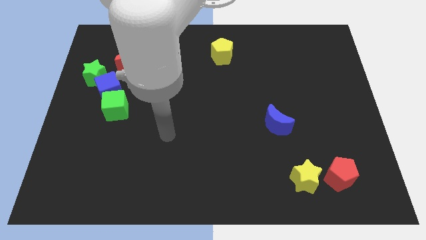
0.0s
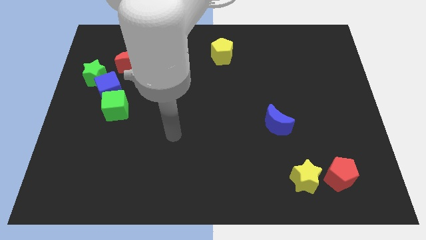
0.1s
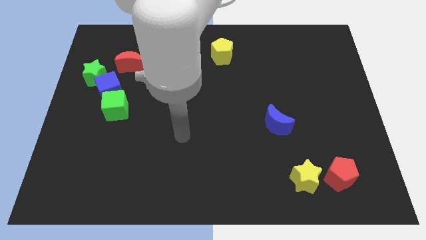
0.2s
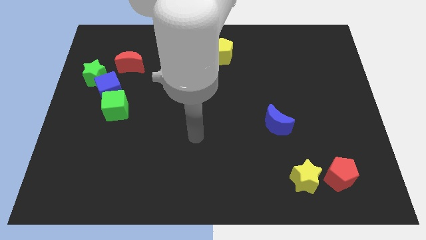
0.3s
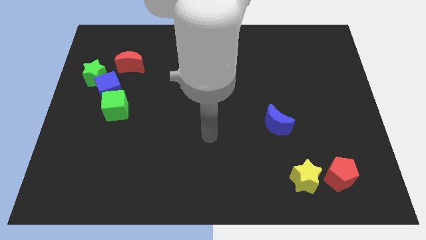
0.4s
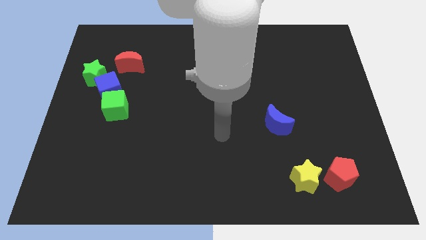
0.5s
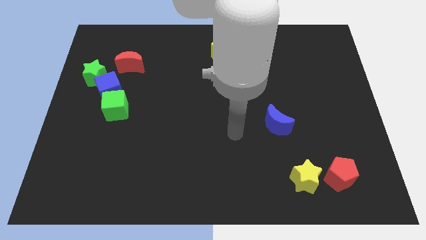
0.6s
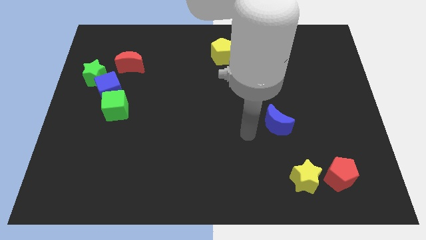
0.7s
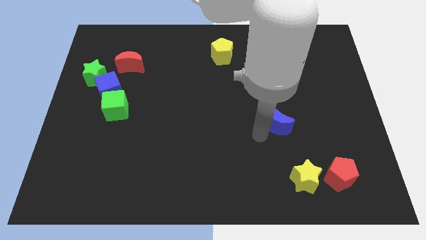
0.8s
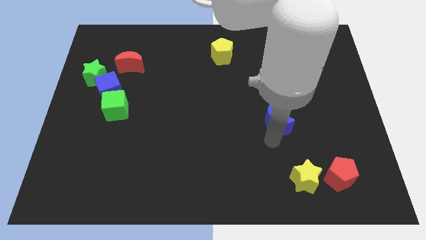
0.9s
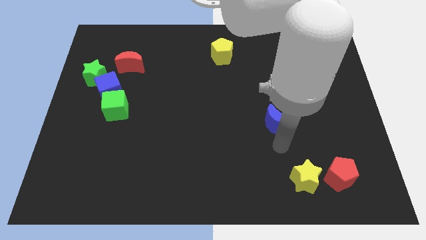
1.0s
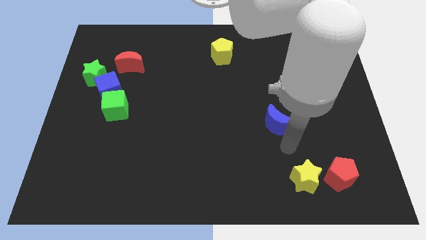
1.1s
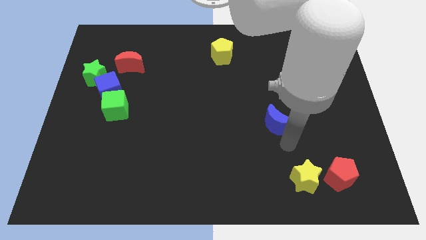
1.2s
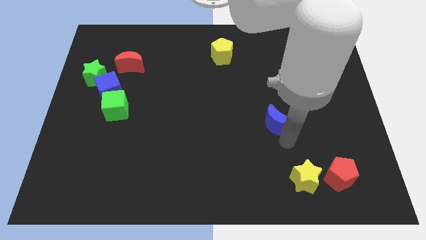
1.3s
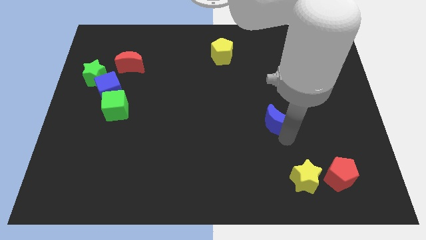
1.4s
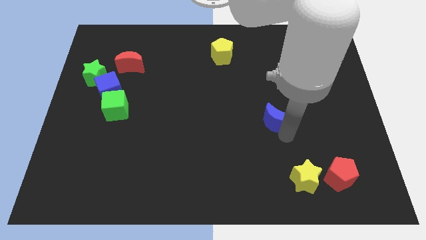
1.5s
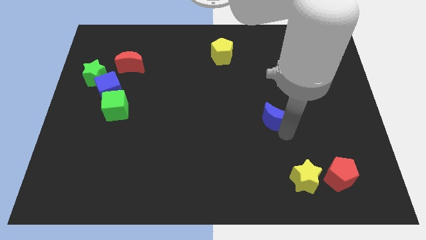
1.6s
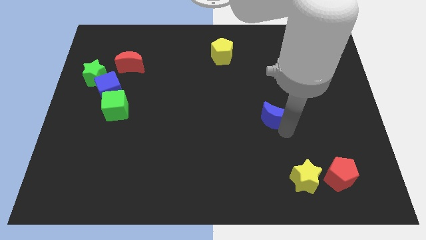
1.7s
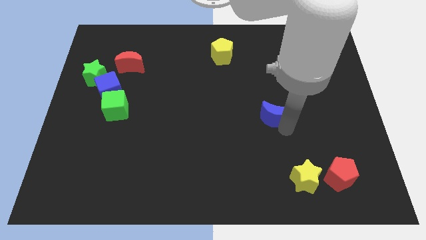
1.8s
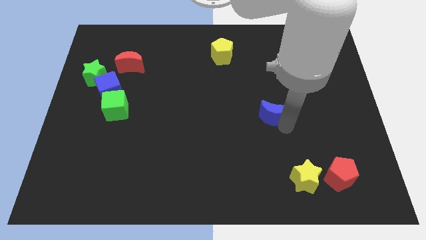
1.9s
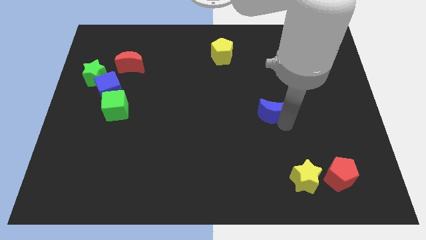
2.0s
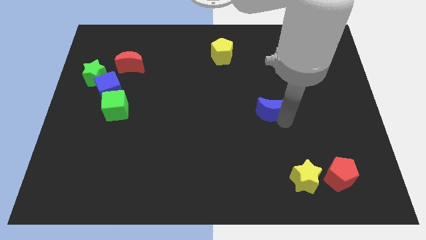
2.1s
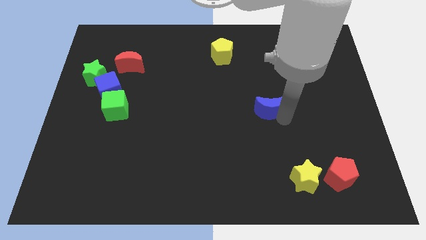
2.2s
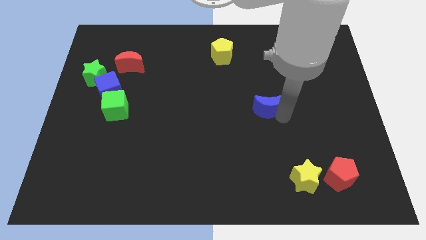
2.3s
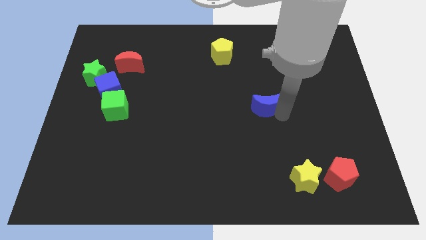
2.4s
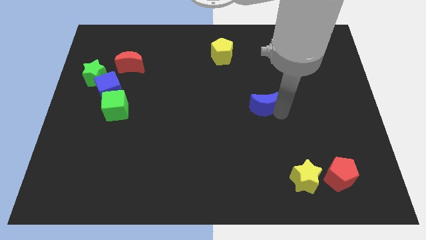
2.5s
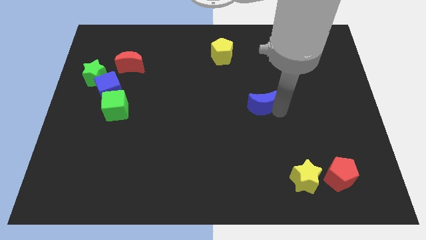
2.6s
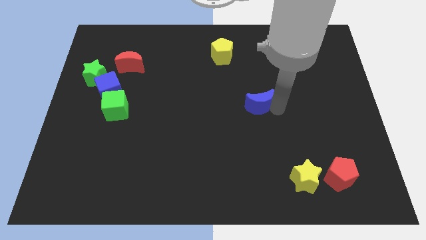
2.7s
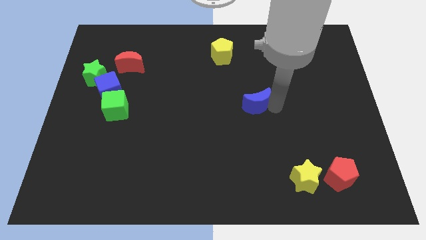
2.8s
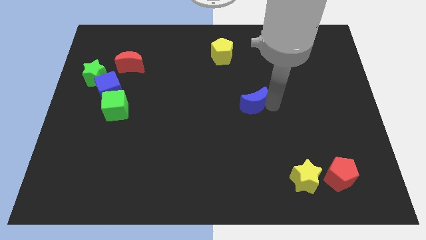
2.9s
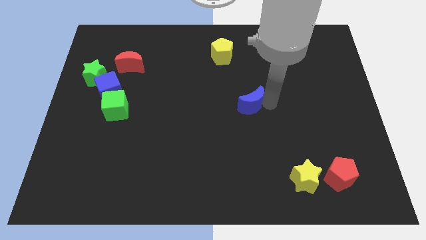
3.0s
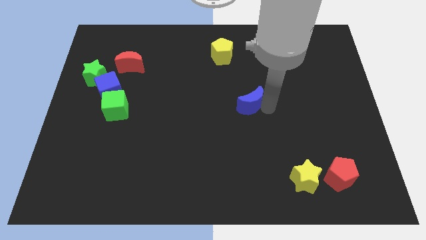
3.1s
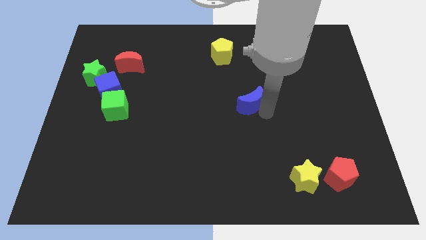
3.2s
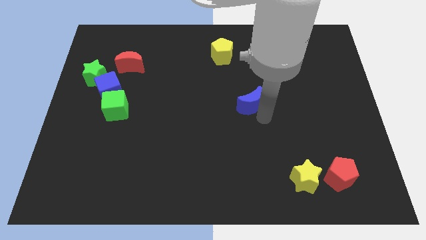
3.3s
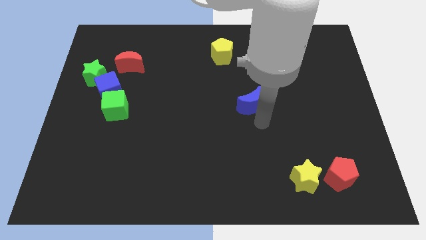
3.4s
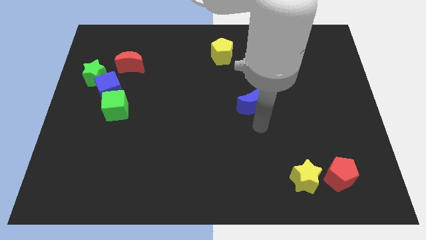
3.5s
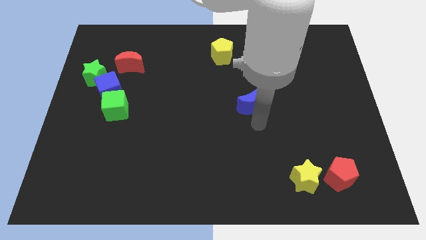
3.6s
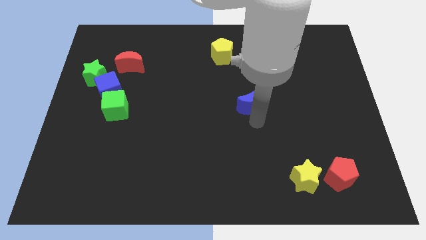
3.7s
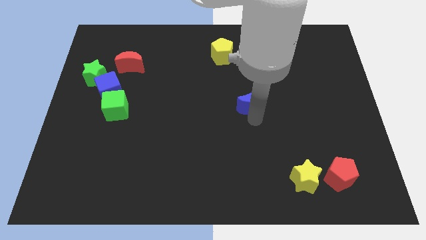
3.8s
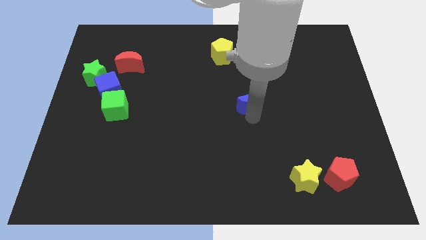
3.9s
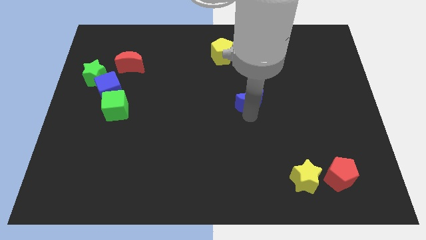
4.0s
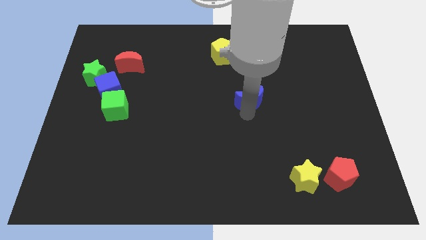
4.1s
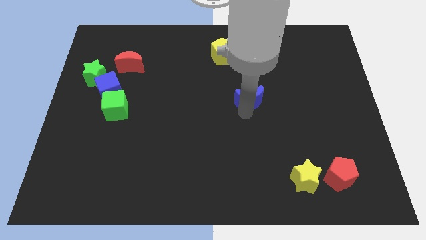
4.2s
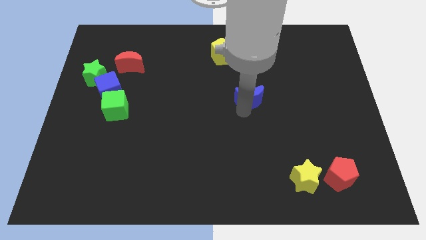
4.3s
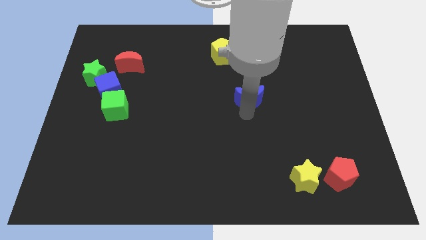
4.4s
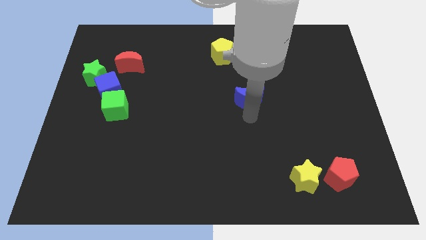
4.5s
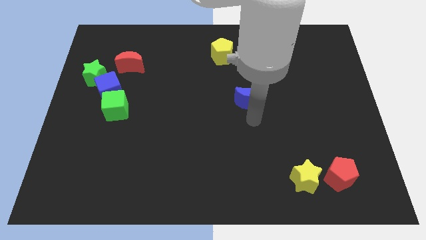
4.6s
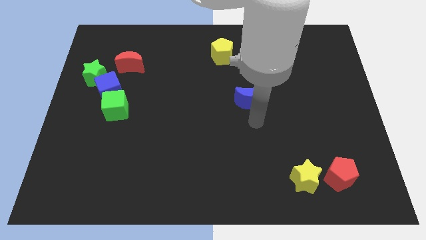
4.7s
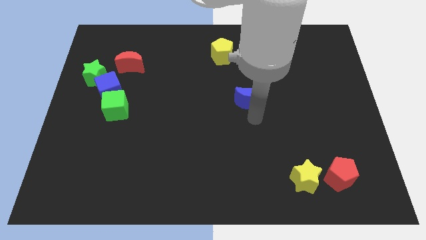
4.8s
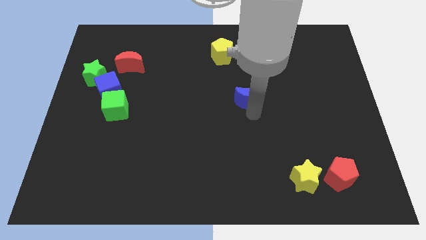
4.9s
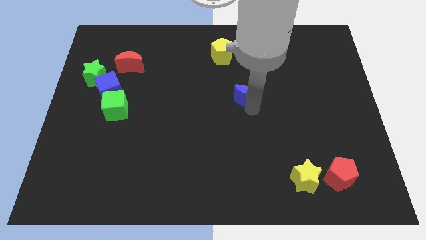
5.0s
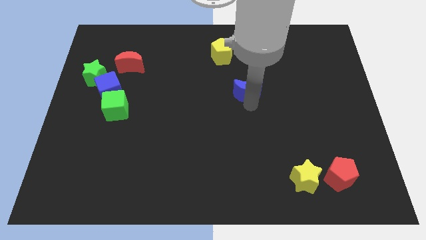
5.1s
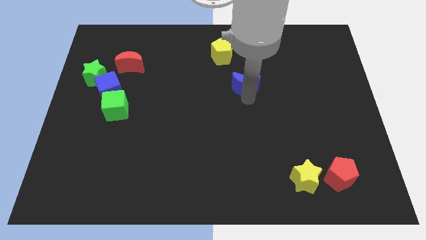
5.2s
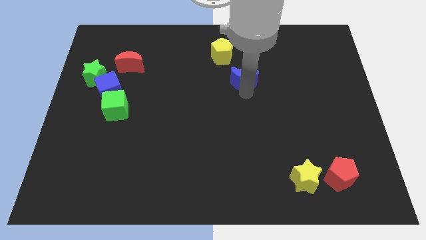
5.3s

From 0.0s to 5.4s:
slide the blue moon diagonally down and to the right of the yellow pentagon

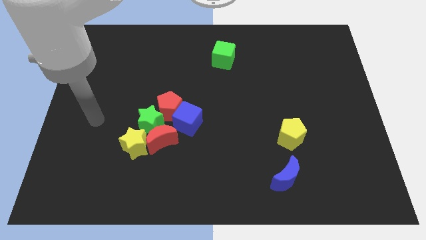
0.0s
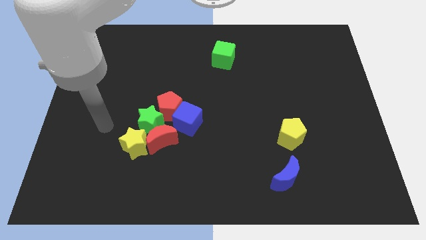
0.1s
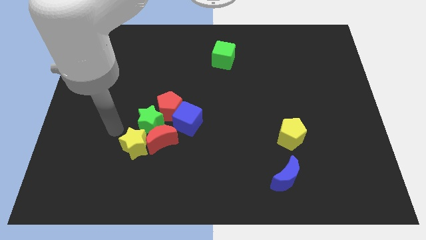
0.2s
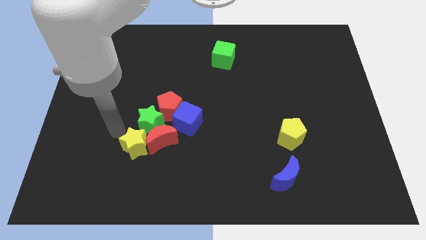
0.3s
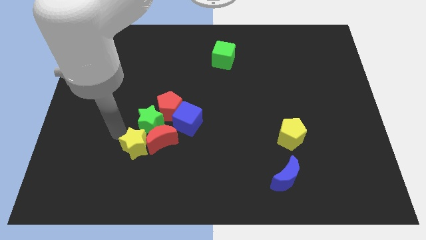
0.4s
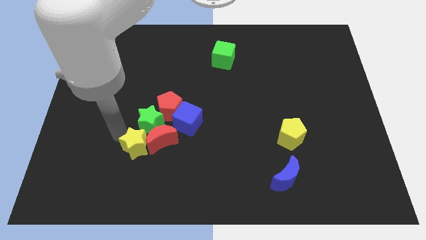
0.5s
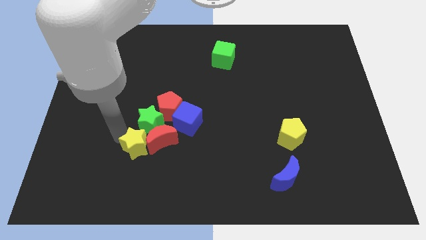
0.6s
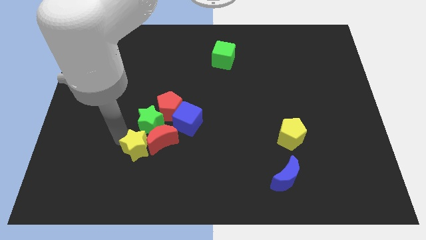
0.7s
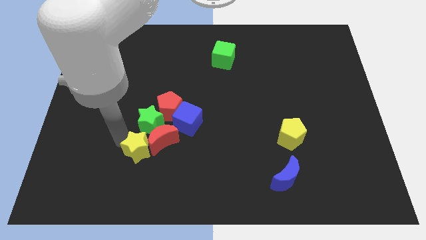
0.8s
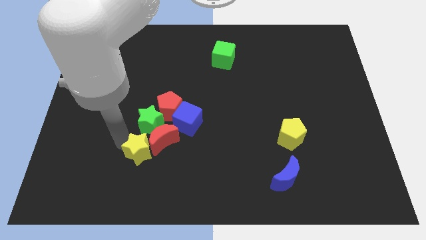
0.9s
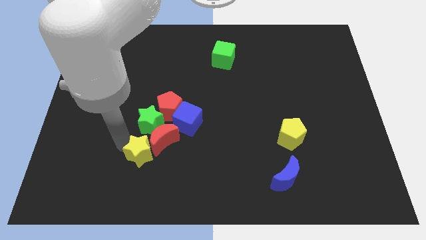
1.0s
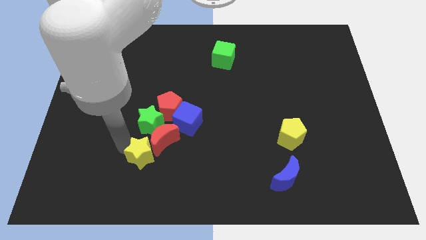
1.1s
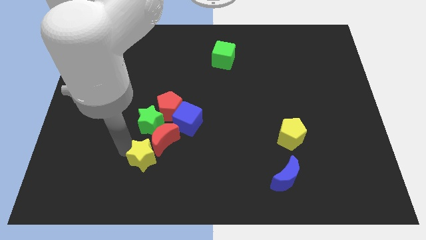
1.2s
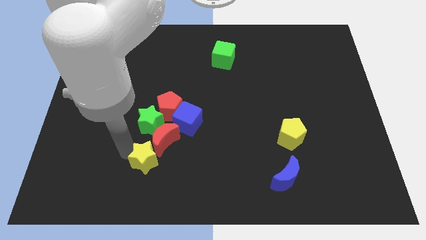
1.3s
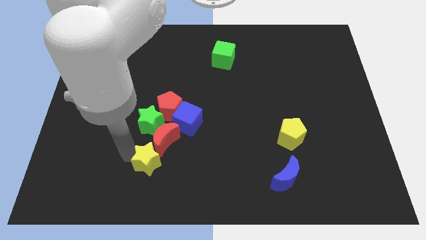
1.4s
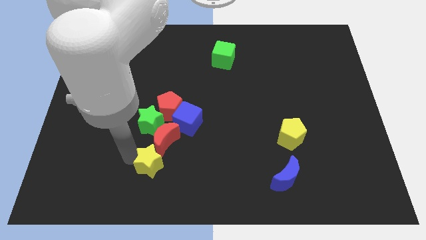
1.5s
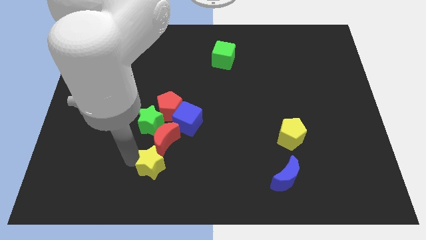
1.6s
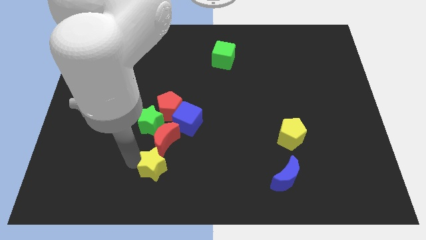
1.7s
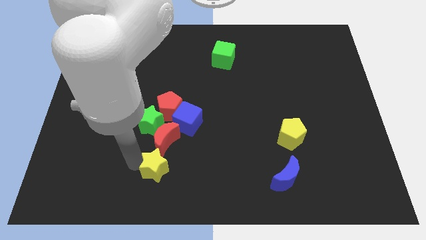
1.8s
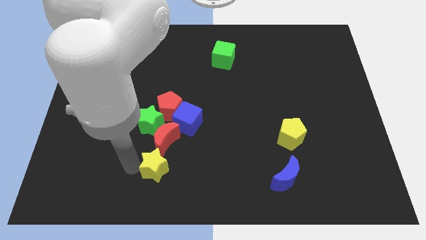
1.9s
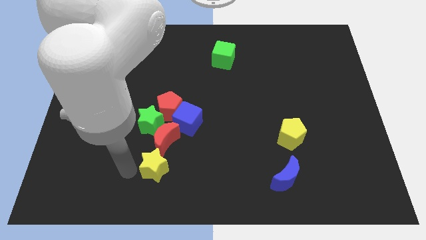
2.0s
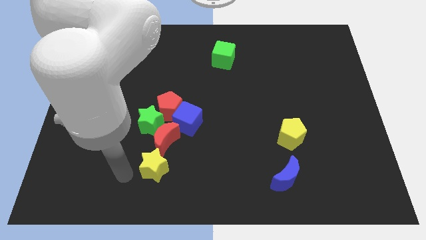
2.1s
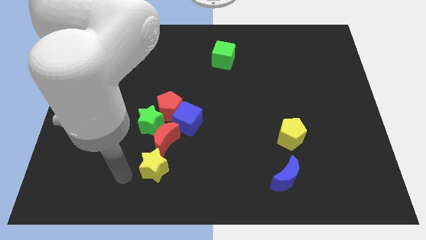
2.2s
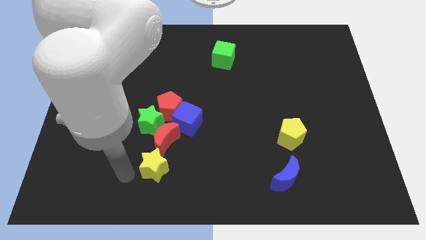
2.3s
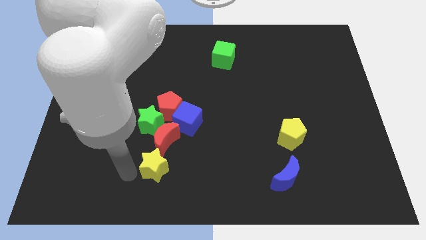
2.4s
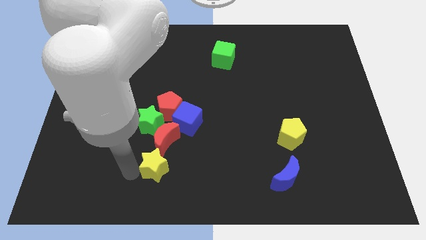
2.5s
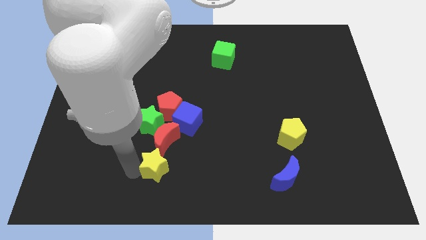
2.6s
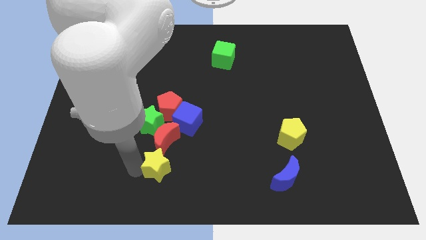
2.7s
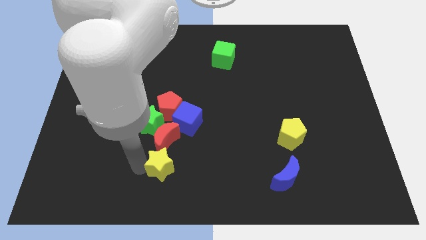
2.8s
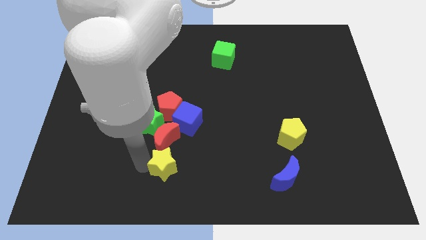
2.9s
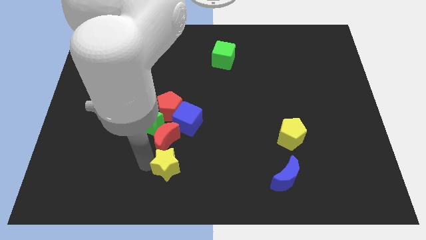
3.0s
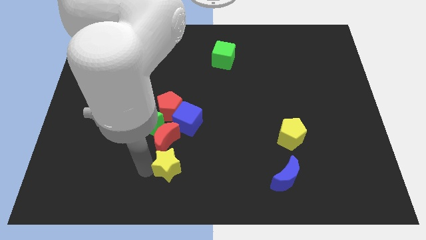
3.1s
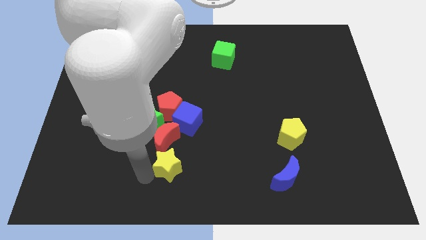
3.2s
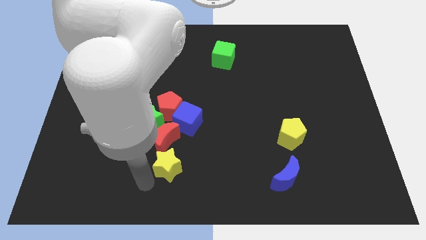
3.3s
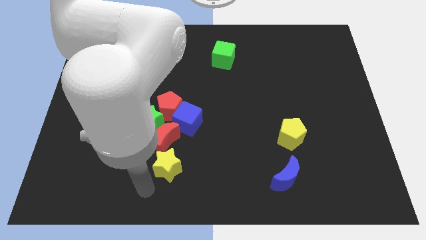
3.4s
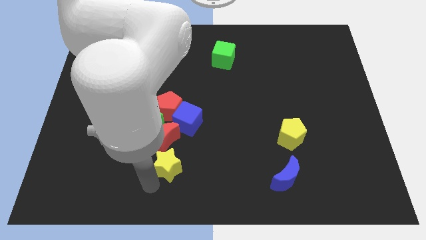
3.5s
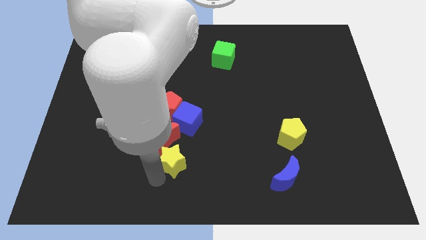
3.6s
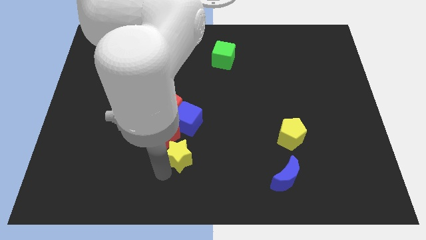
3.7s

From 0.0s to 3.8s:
put the yellow star to the right side of the red moon
